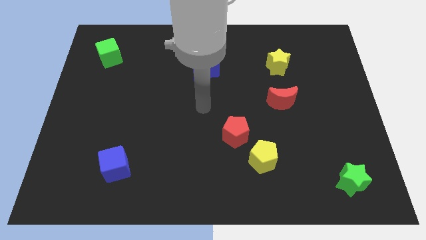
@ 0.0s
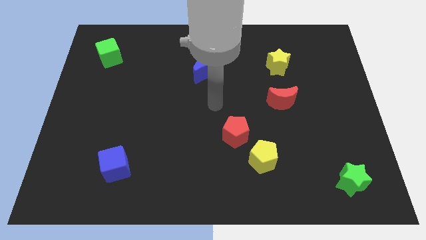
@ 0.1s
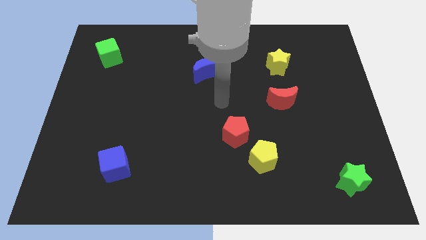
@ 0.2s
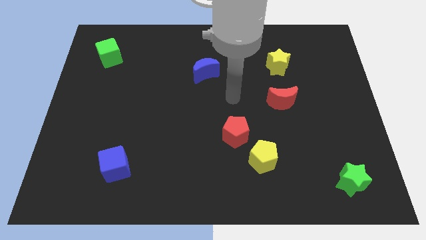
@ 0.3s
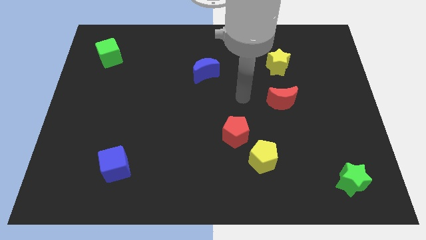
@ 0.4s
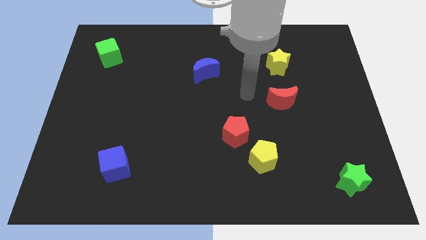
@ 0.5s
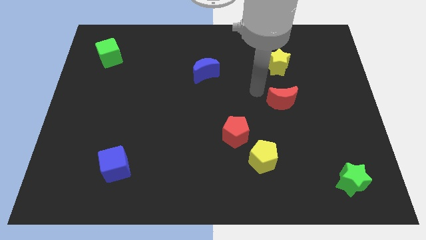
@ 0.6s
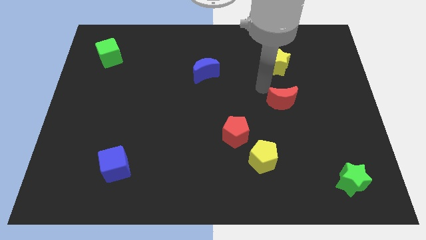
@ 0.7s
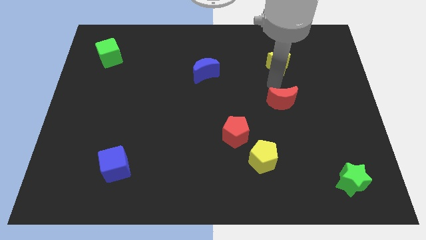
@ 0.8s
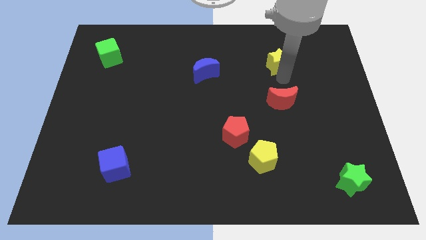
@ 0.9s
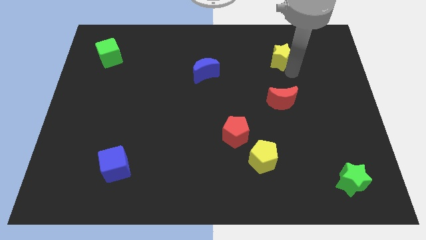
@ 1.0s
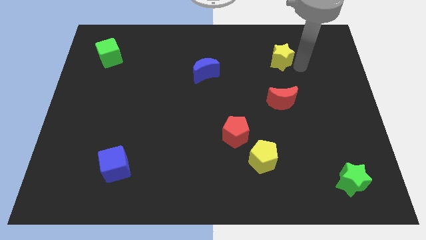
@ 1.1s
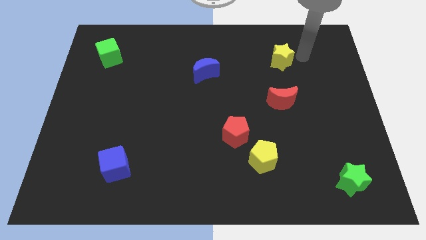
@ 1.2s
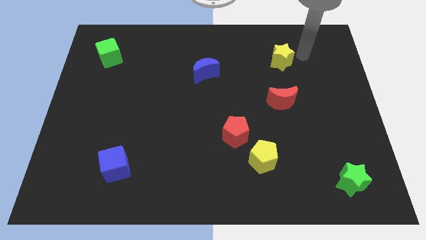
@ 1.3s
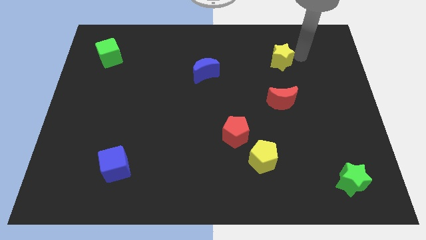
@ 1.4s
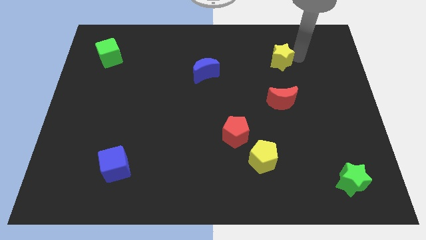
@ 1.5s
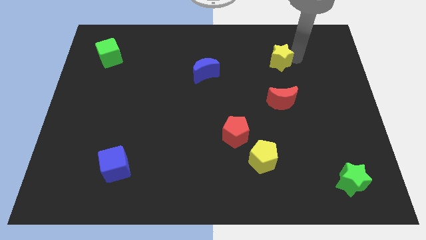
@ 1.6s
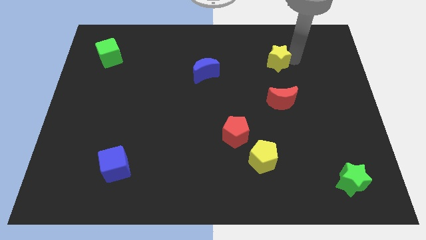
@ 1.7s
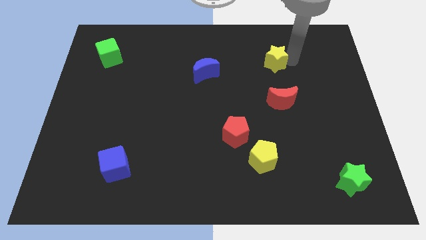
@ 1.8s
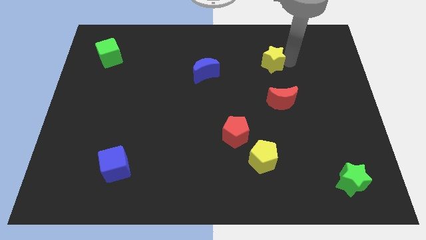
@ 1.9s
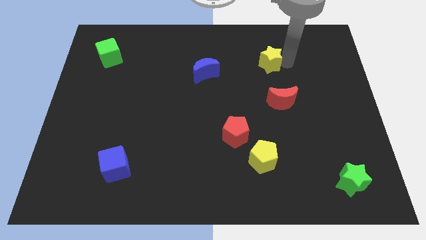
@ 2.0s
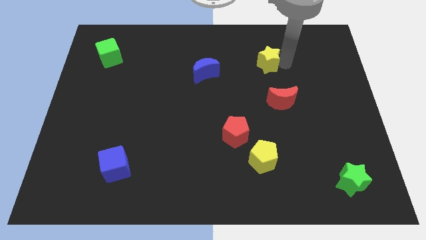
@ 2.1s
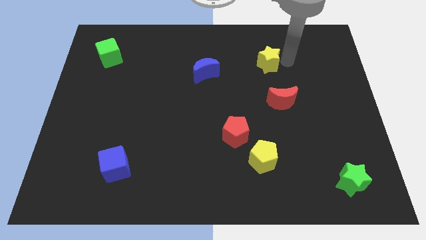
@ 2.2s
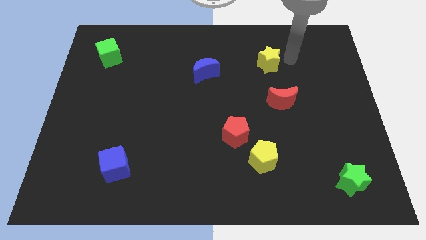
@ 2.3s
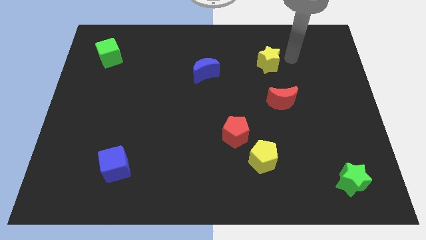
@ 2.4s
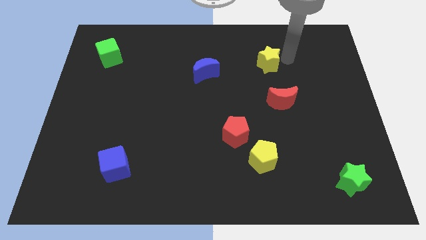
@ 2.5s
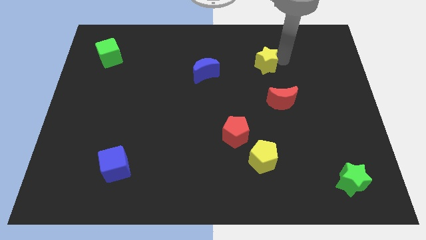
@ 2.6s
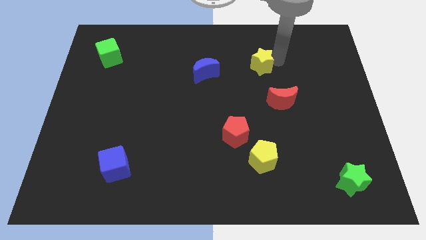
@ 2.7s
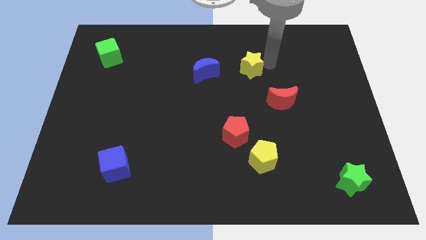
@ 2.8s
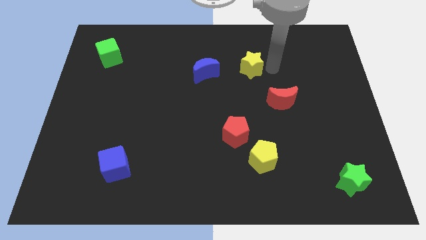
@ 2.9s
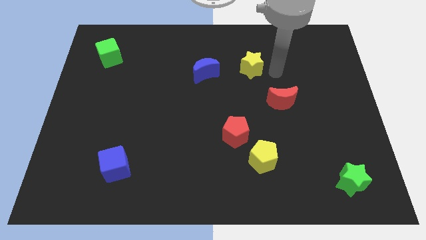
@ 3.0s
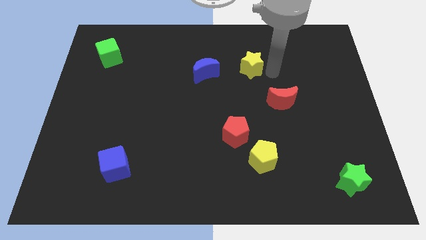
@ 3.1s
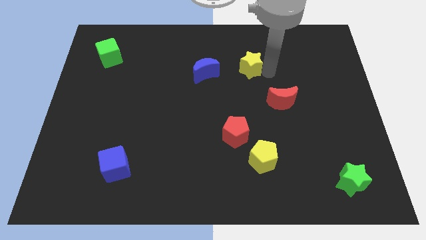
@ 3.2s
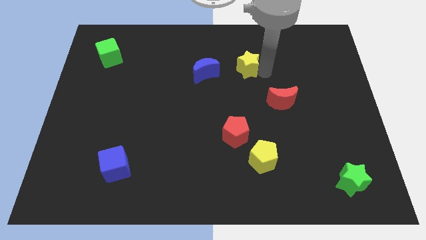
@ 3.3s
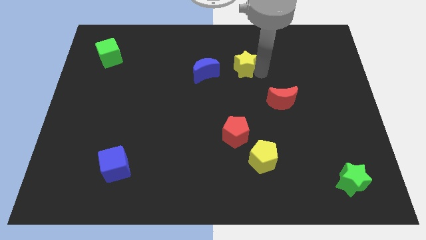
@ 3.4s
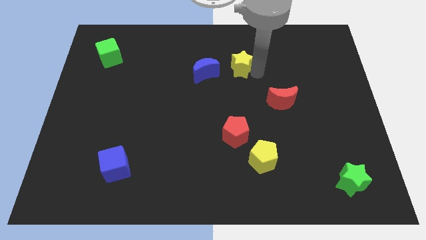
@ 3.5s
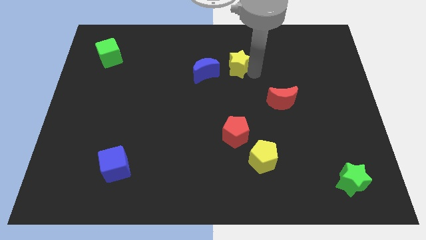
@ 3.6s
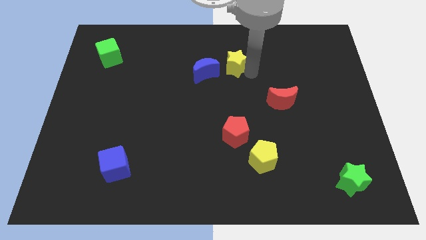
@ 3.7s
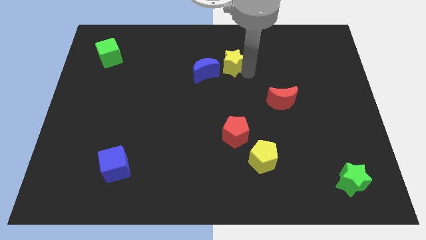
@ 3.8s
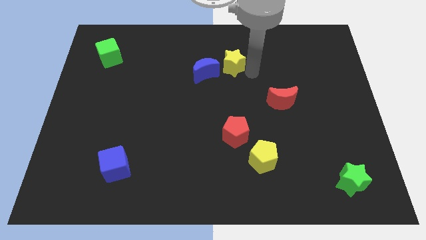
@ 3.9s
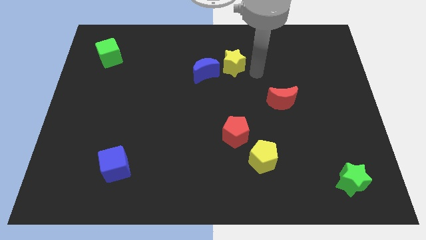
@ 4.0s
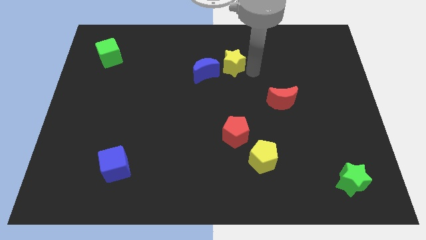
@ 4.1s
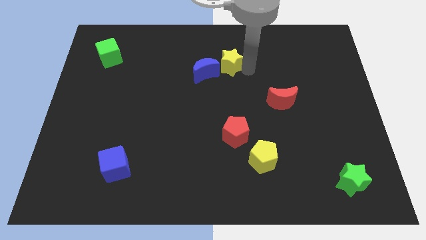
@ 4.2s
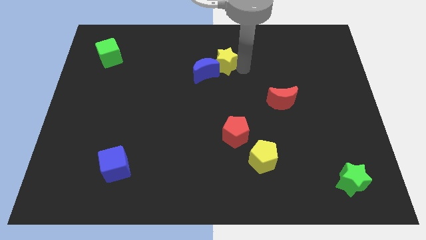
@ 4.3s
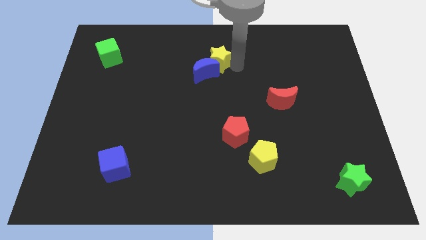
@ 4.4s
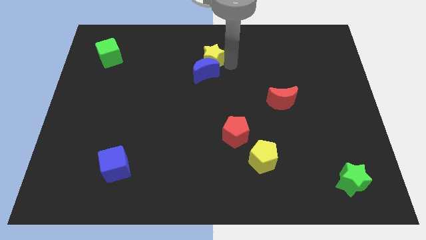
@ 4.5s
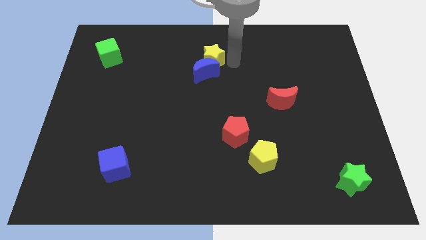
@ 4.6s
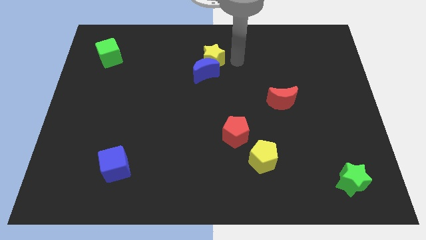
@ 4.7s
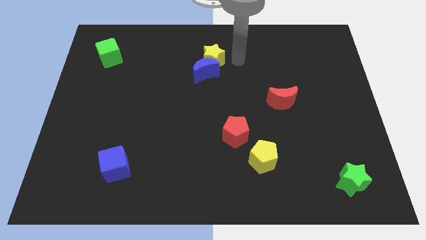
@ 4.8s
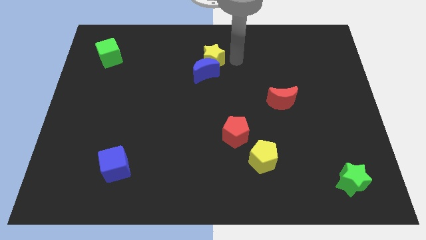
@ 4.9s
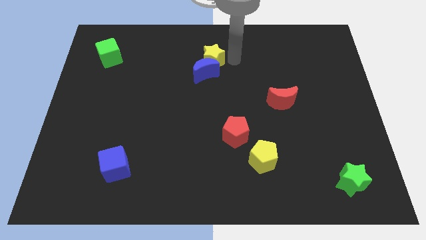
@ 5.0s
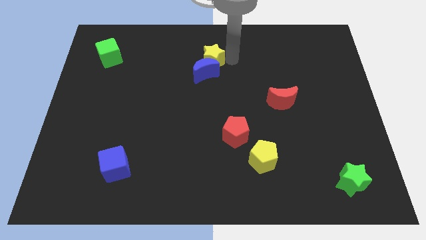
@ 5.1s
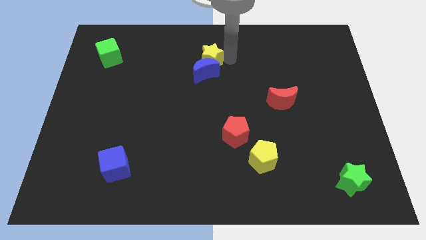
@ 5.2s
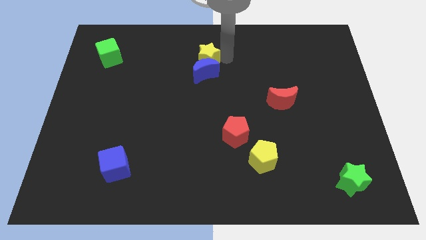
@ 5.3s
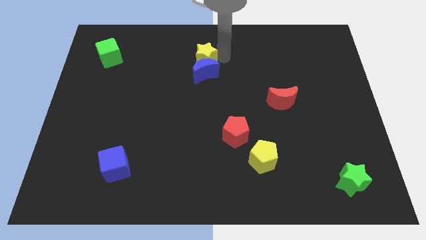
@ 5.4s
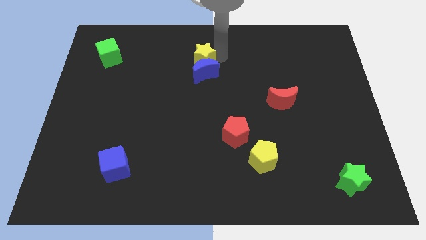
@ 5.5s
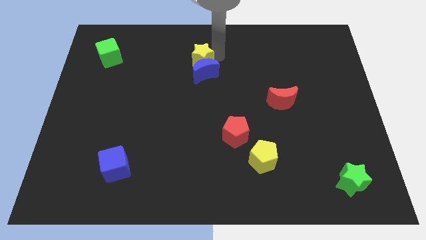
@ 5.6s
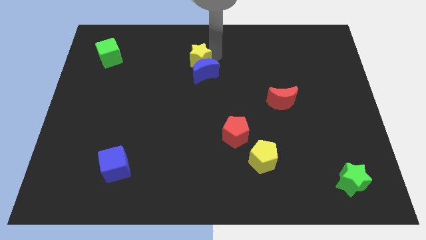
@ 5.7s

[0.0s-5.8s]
push the yellow star to the left

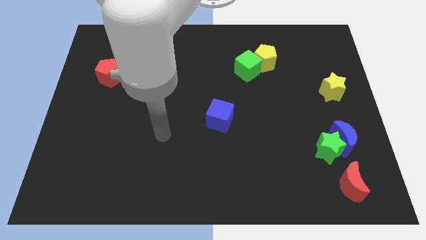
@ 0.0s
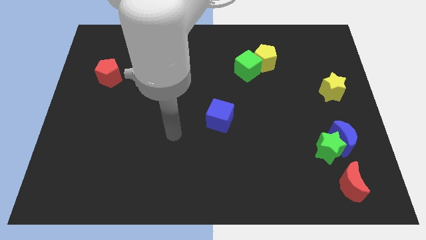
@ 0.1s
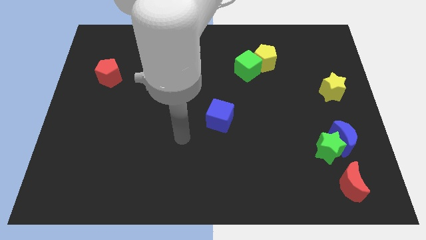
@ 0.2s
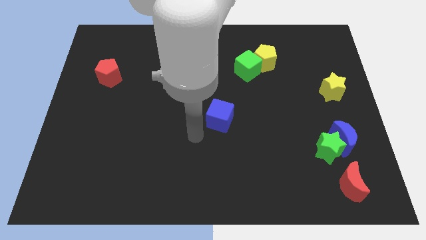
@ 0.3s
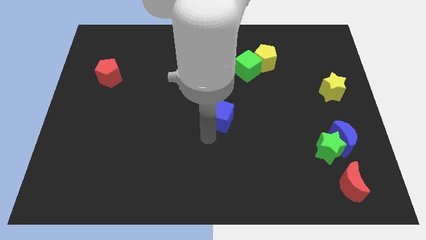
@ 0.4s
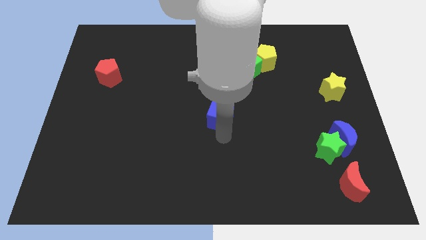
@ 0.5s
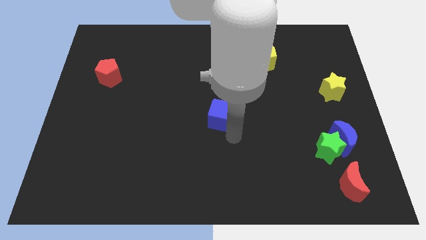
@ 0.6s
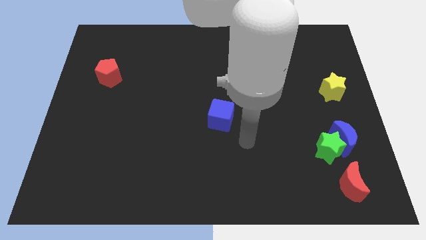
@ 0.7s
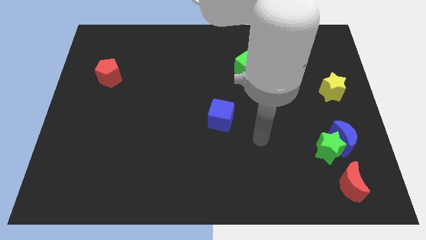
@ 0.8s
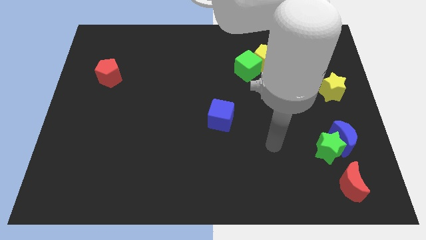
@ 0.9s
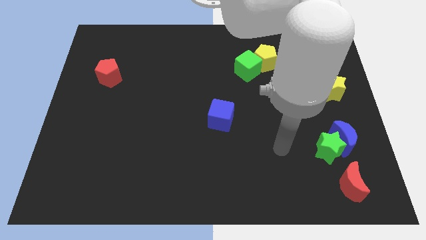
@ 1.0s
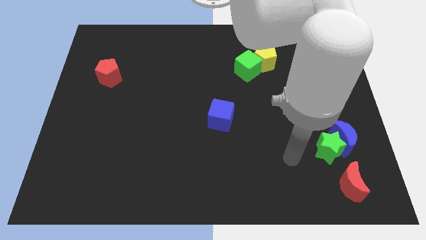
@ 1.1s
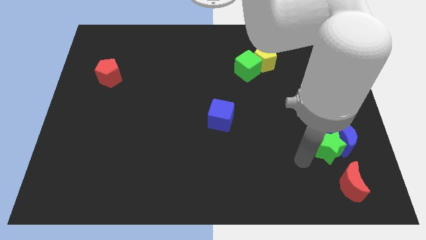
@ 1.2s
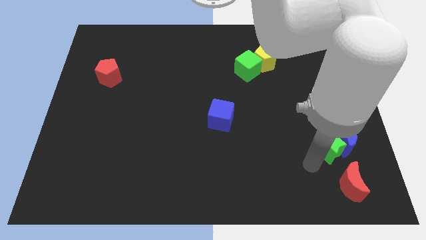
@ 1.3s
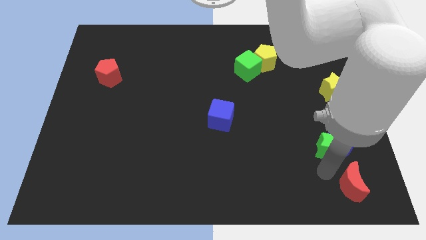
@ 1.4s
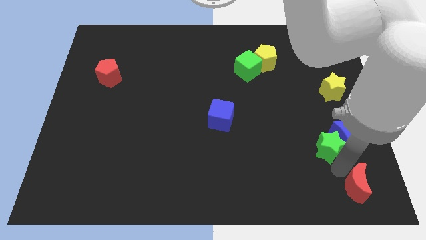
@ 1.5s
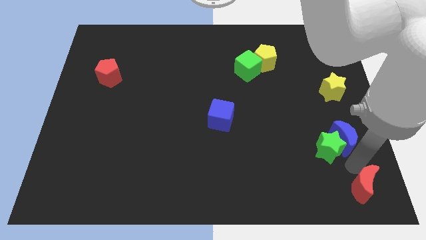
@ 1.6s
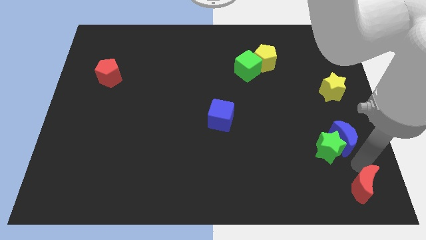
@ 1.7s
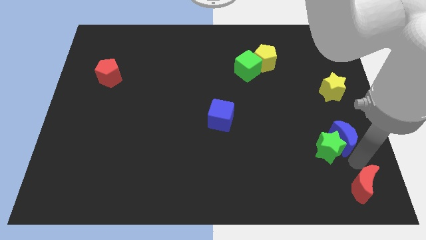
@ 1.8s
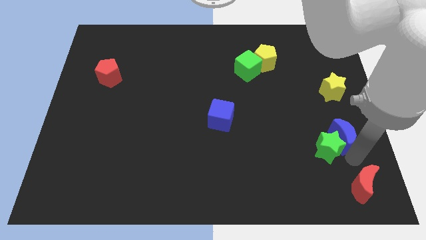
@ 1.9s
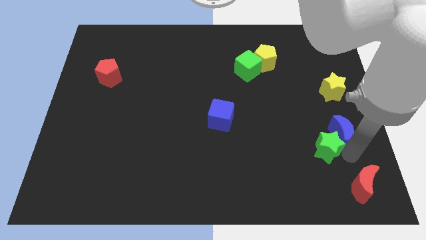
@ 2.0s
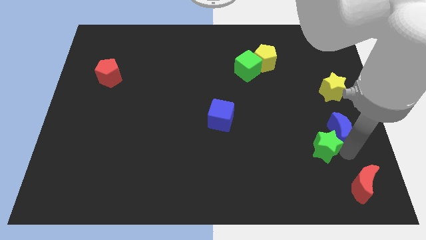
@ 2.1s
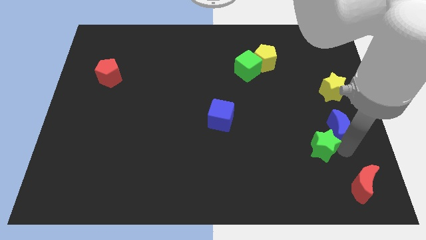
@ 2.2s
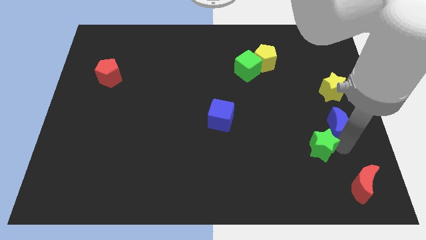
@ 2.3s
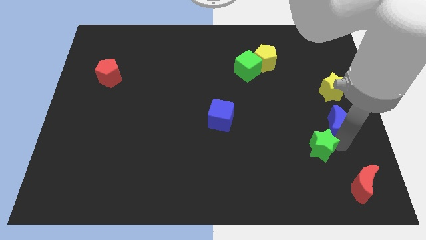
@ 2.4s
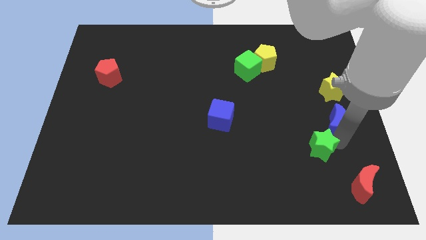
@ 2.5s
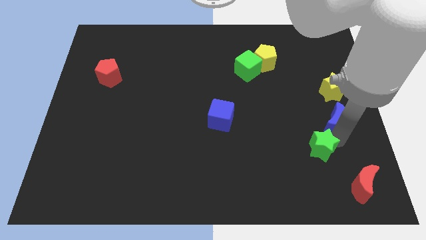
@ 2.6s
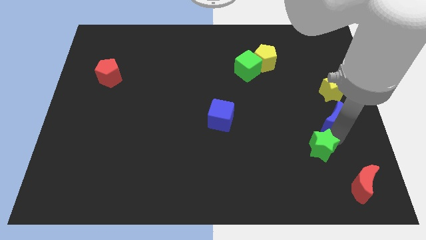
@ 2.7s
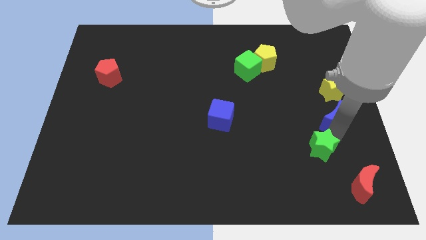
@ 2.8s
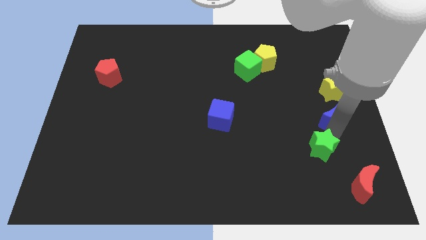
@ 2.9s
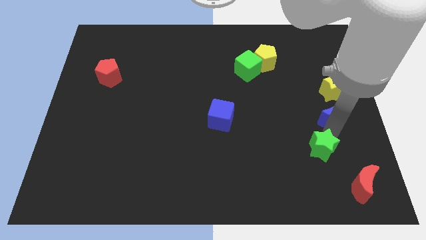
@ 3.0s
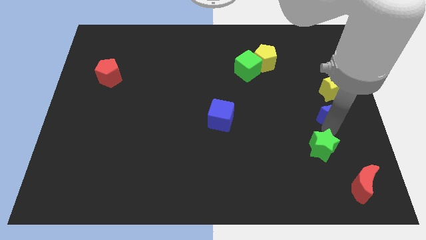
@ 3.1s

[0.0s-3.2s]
slide the blue moon a bit up
